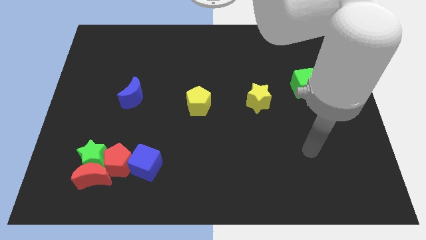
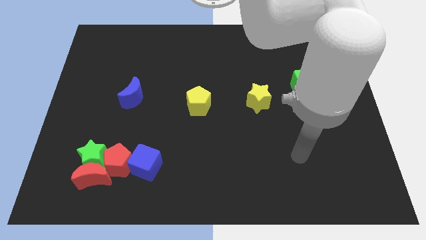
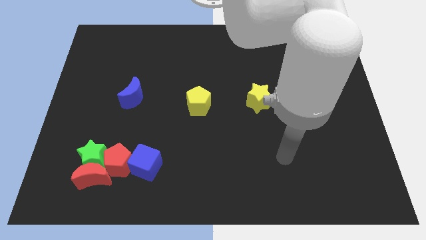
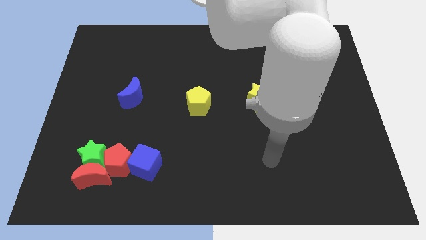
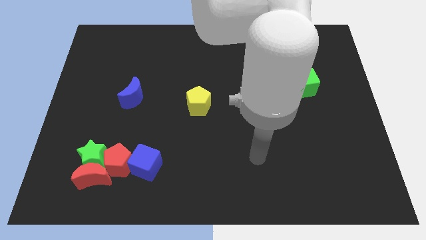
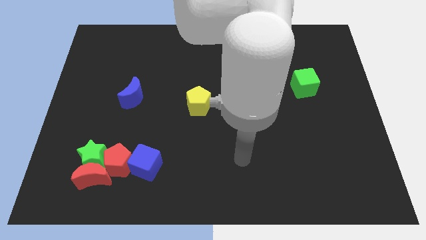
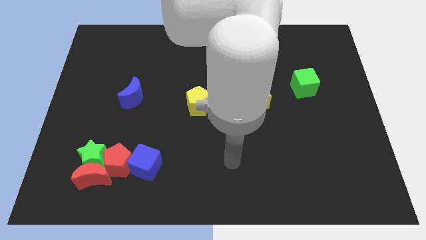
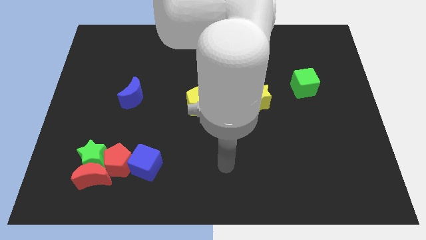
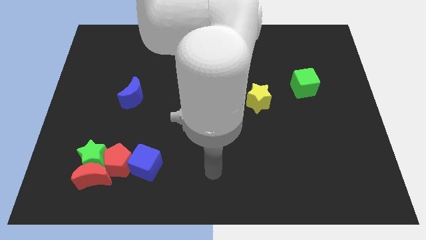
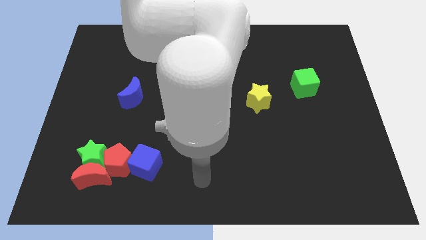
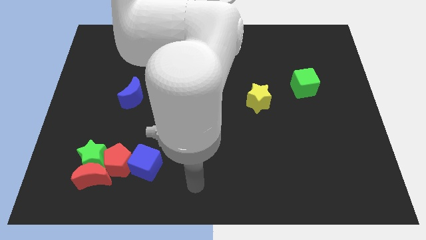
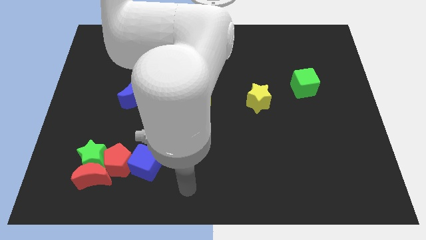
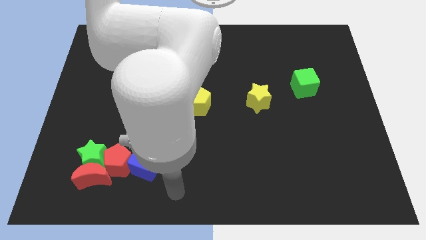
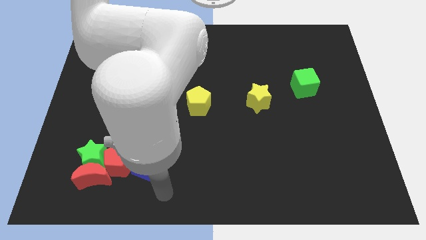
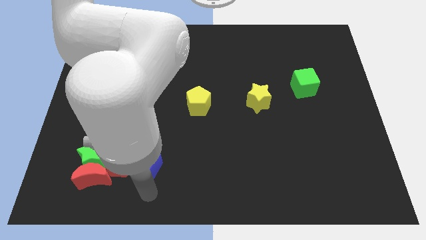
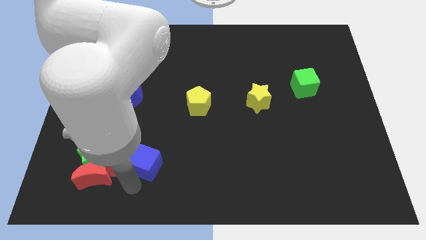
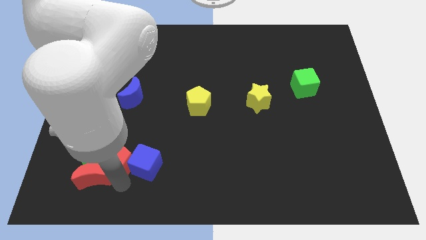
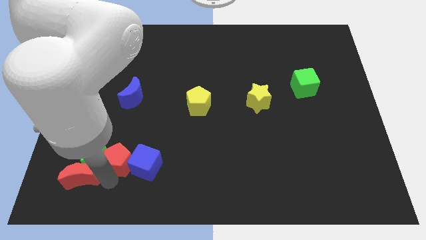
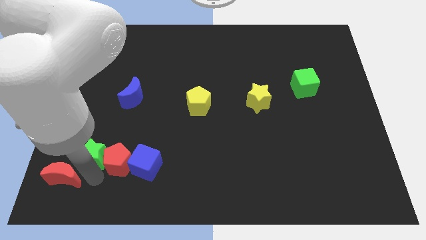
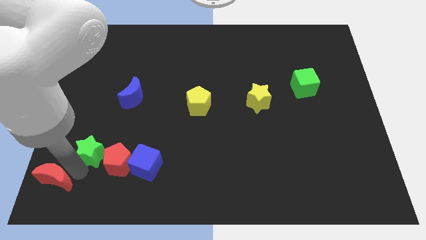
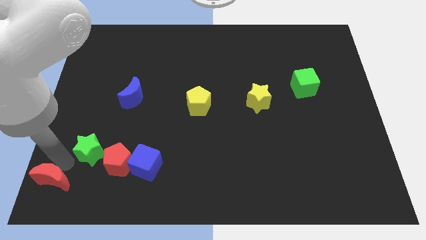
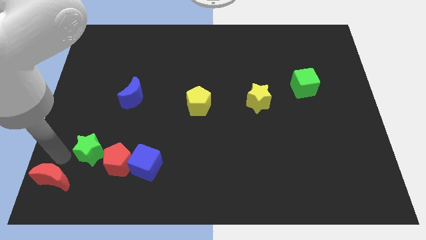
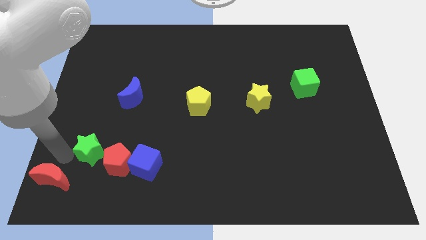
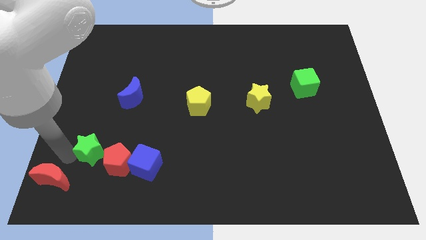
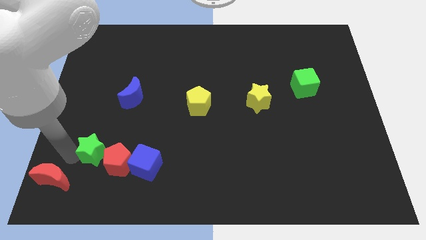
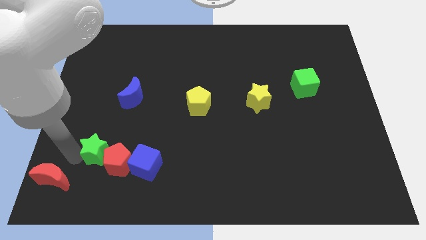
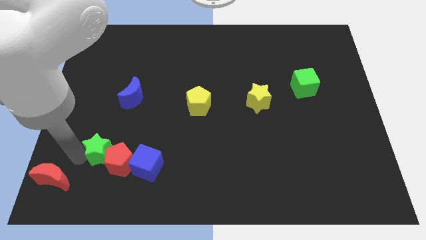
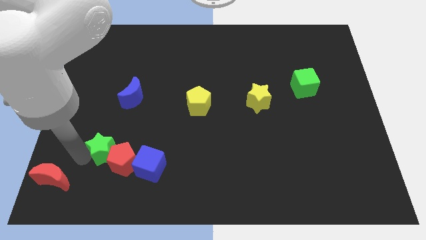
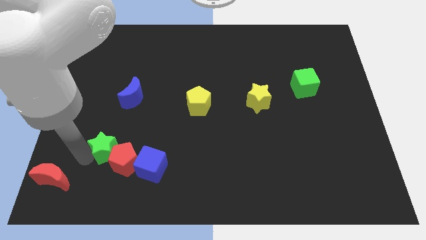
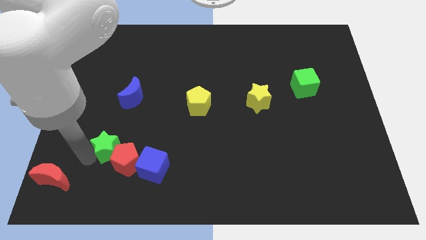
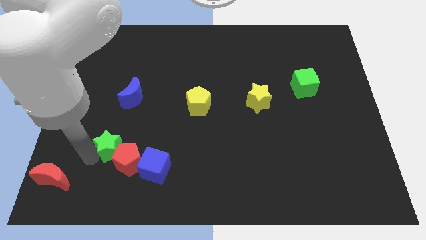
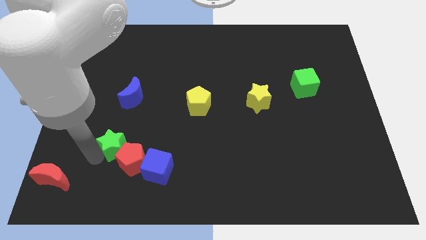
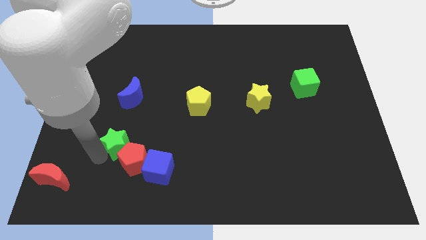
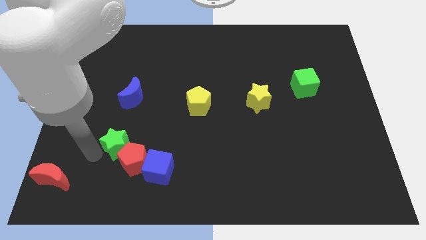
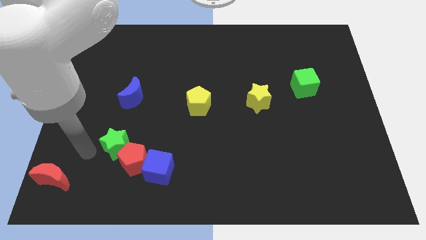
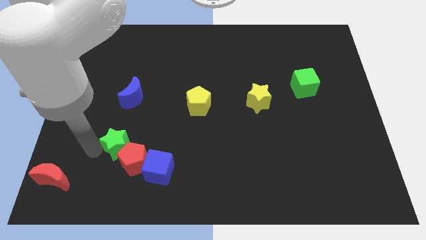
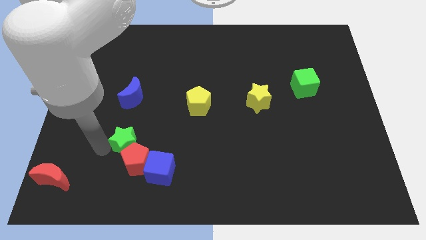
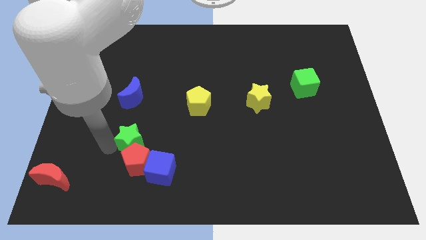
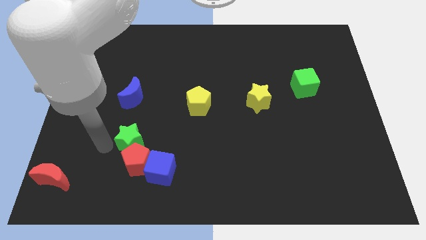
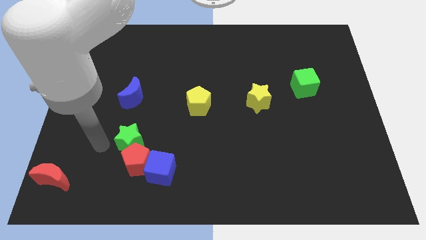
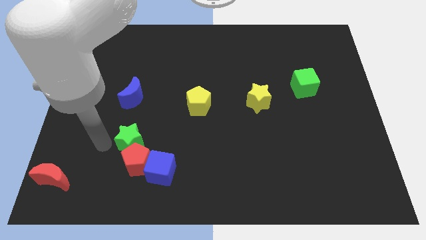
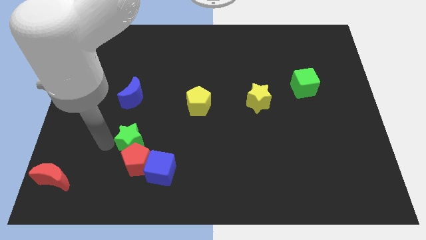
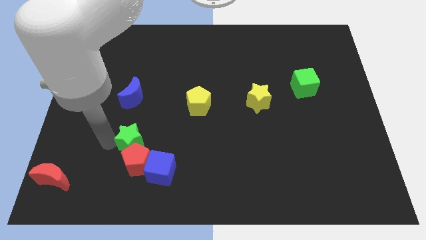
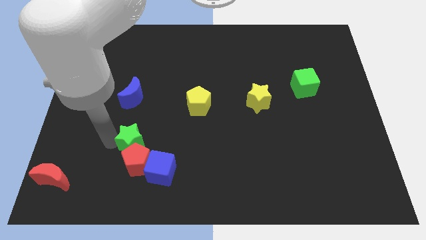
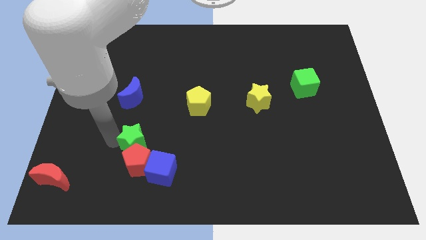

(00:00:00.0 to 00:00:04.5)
slightly push the green star right

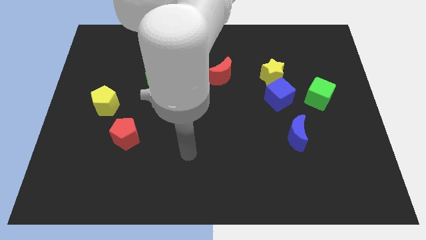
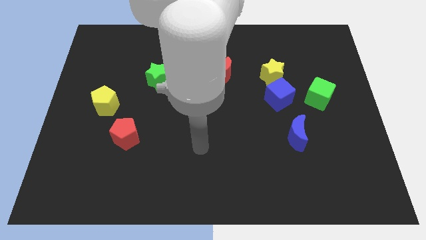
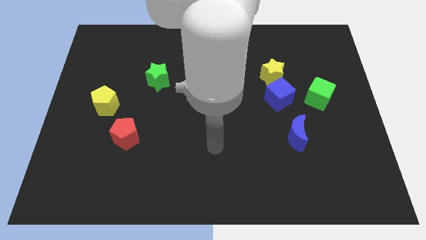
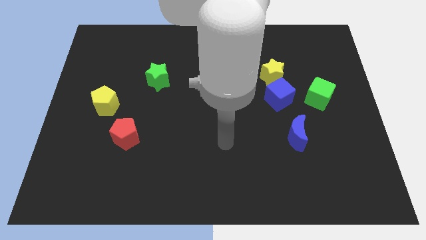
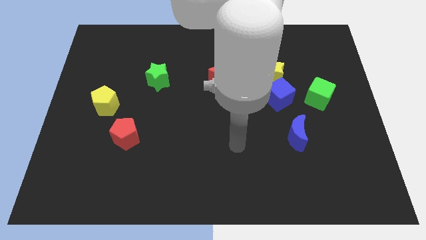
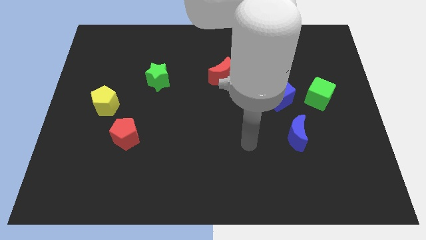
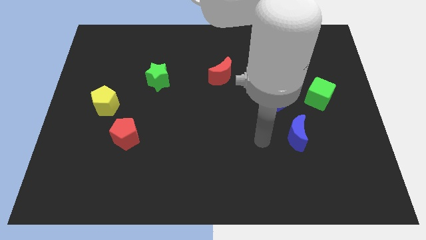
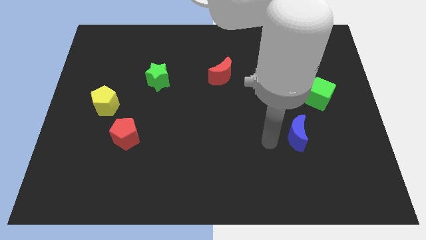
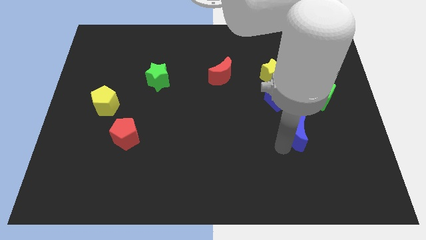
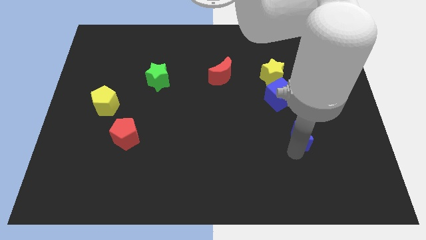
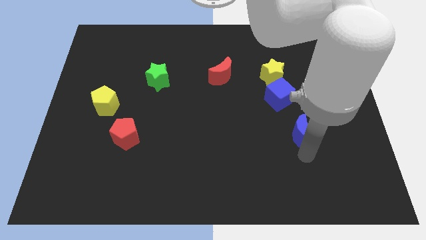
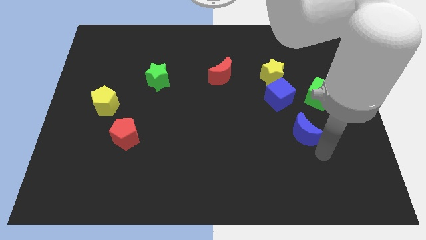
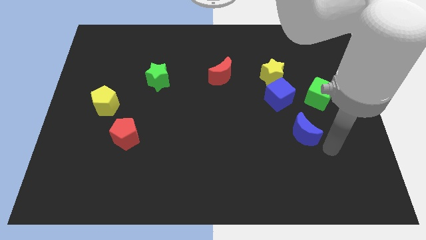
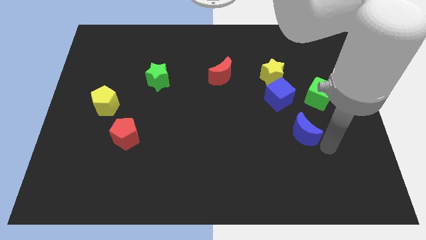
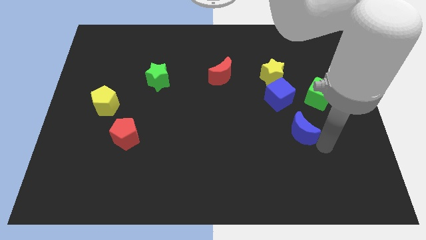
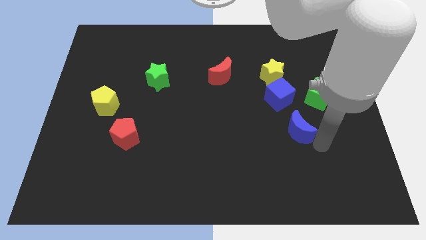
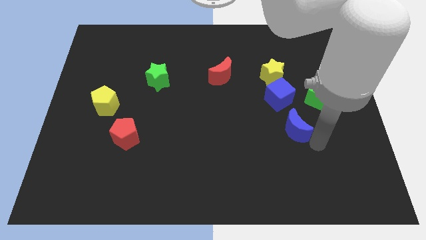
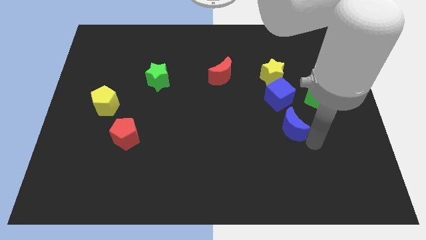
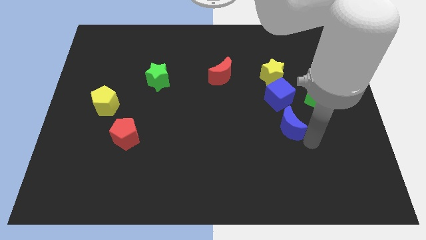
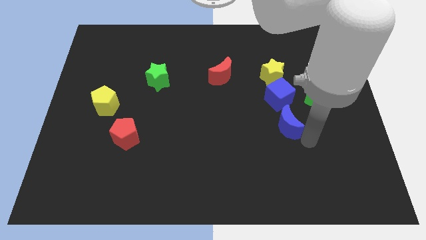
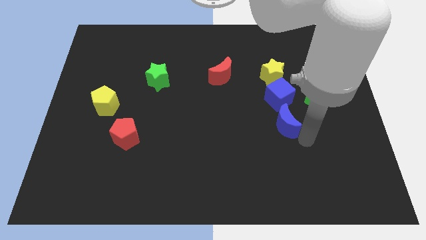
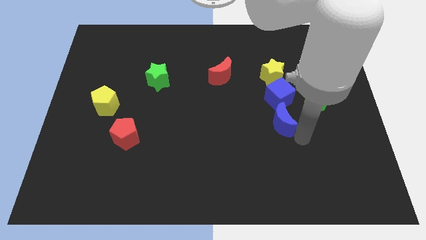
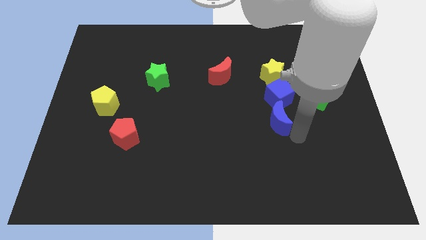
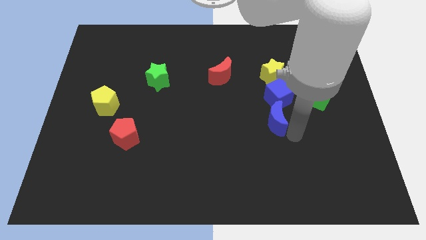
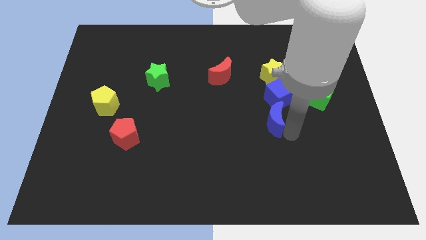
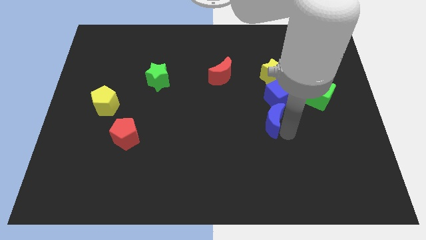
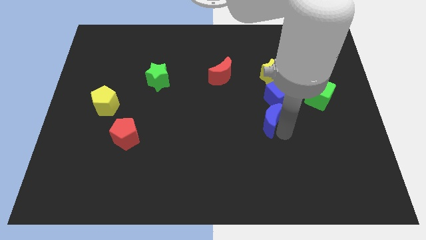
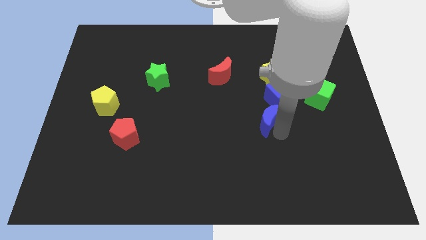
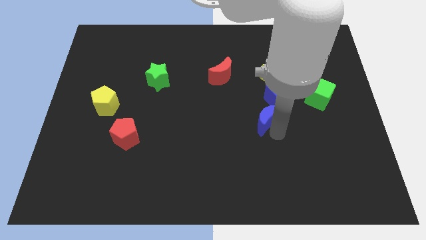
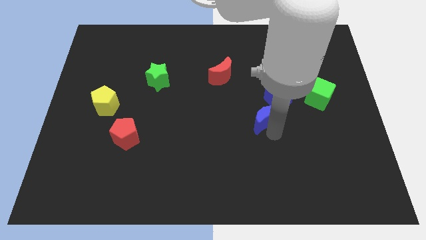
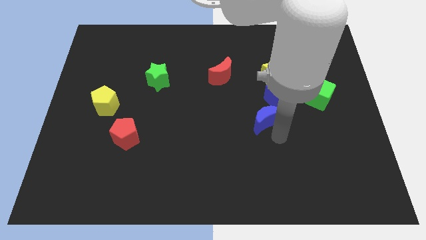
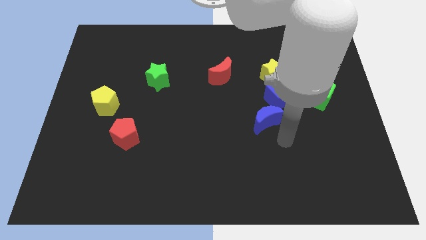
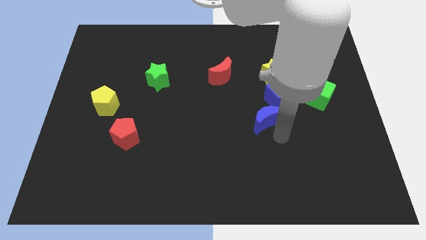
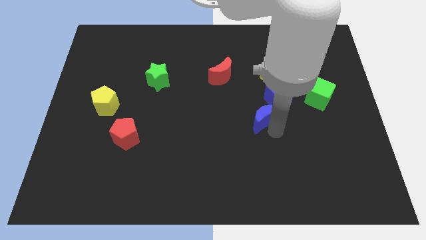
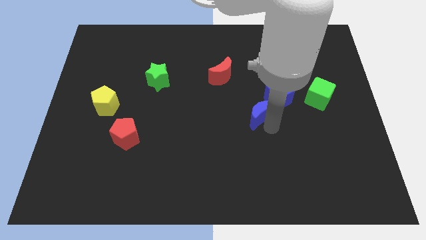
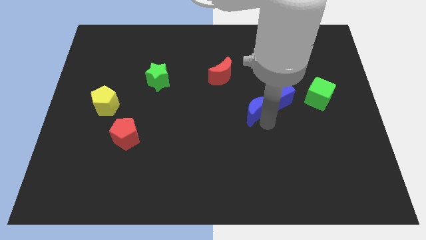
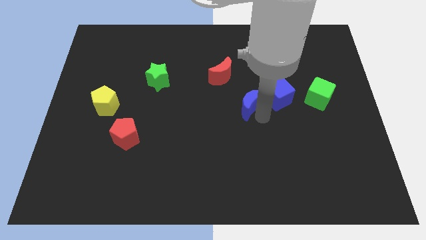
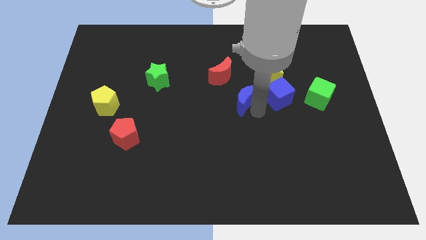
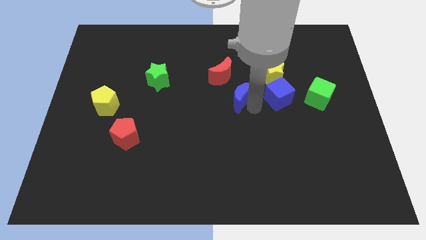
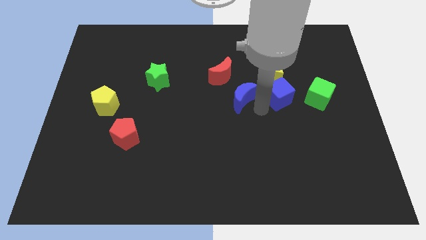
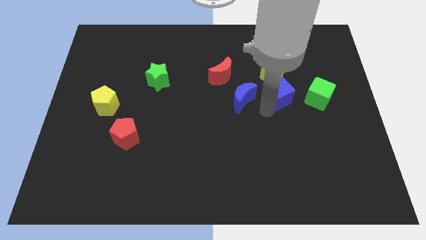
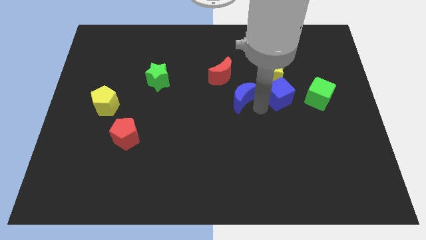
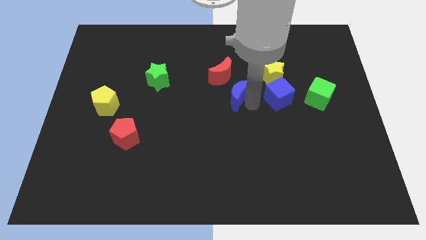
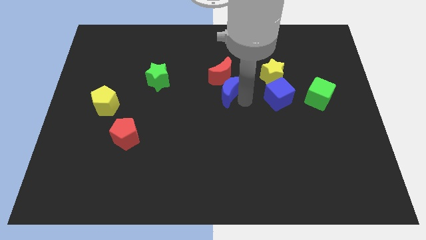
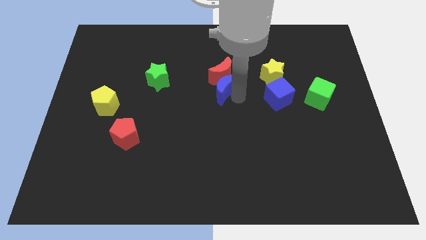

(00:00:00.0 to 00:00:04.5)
push the blue moon upwards and left
